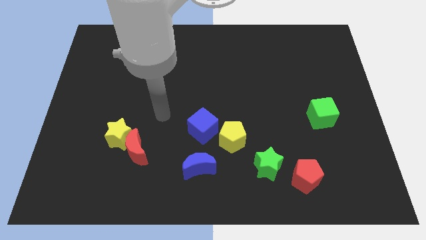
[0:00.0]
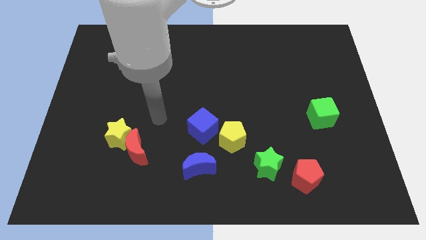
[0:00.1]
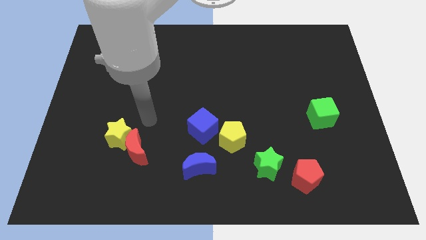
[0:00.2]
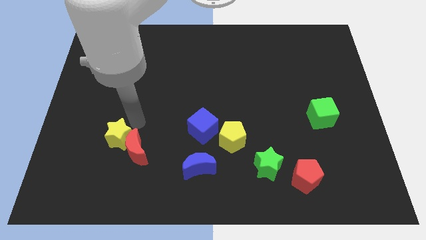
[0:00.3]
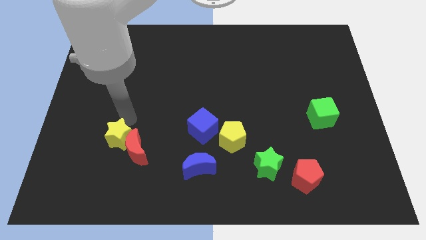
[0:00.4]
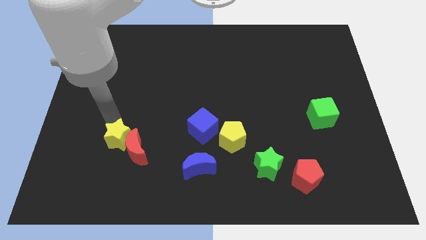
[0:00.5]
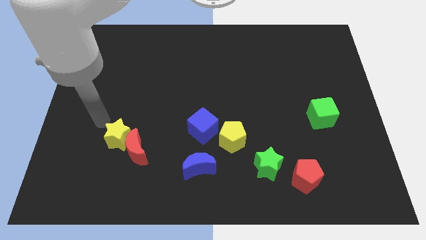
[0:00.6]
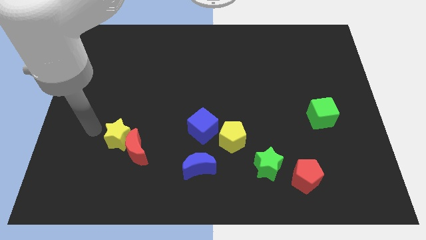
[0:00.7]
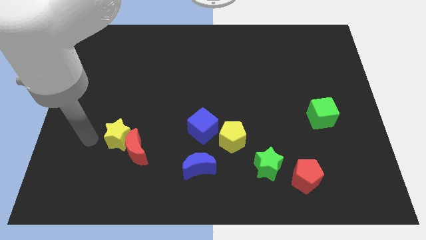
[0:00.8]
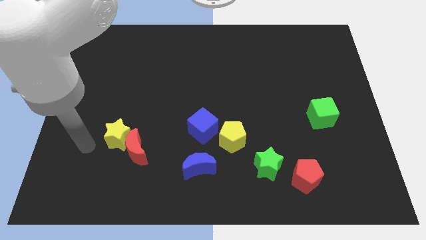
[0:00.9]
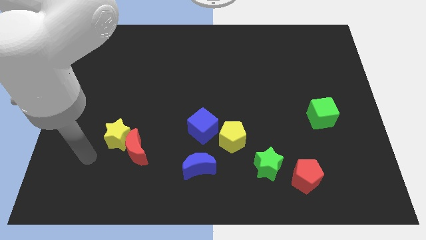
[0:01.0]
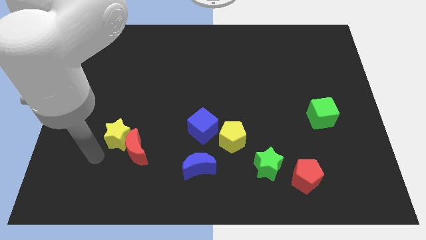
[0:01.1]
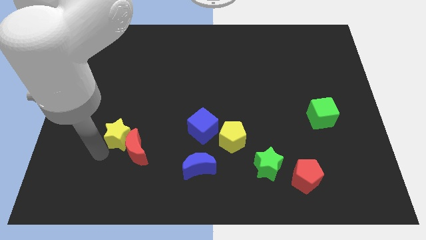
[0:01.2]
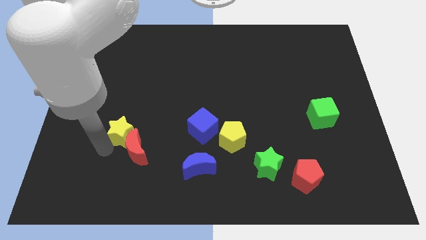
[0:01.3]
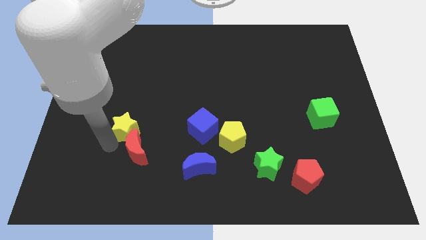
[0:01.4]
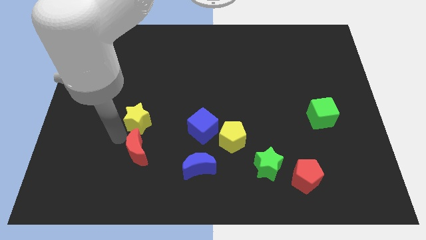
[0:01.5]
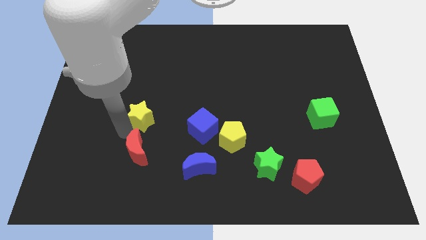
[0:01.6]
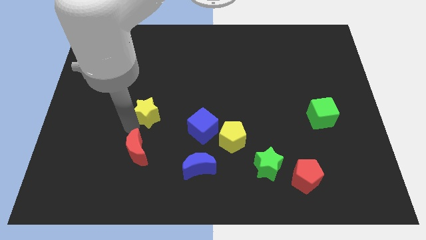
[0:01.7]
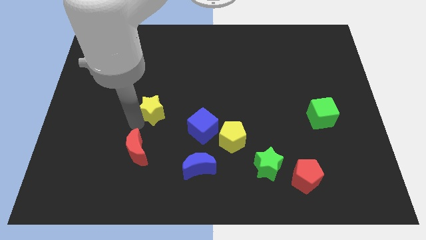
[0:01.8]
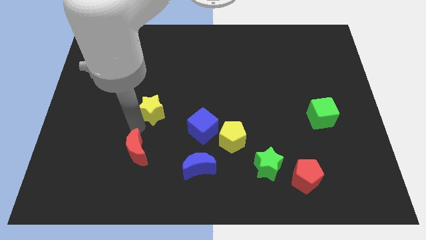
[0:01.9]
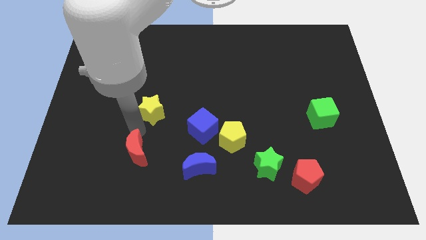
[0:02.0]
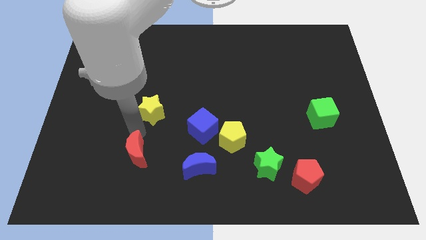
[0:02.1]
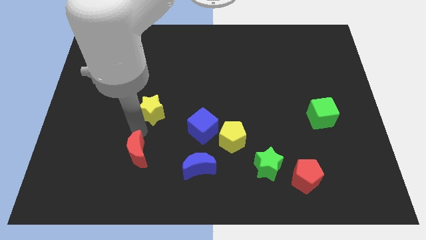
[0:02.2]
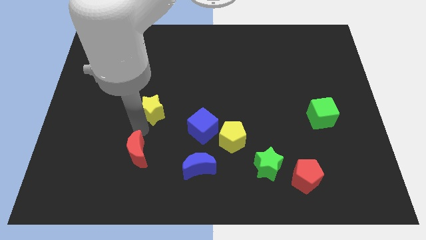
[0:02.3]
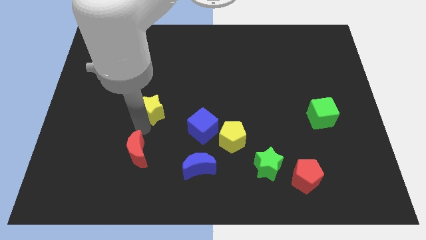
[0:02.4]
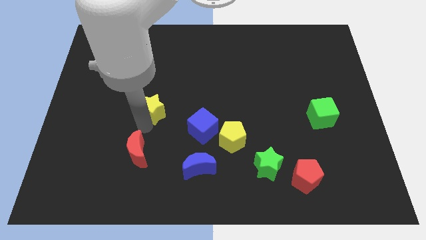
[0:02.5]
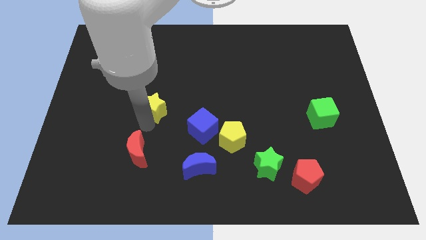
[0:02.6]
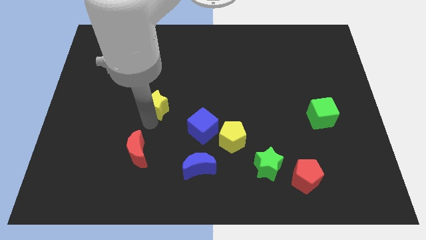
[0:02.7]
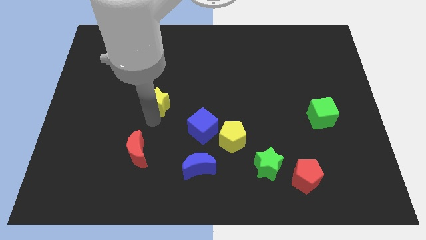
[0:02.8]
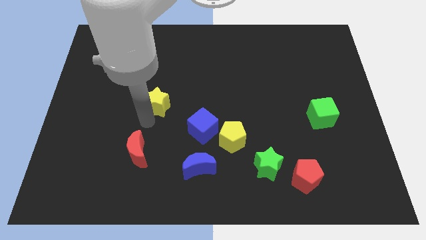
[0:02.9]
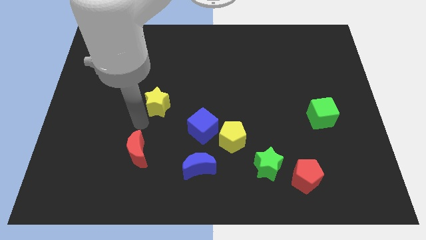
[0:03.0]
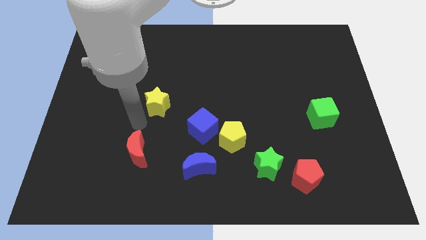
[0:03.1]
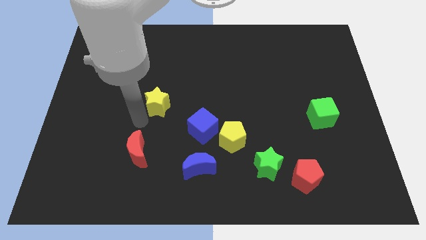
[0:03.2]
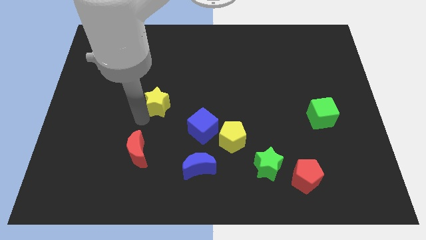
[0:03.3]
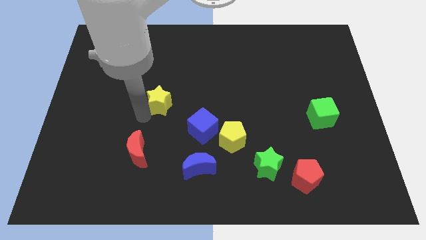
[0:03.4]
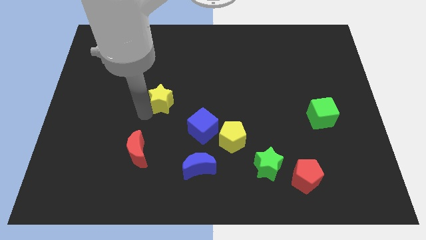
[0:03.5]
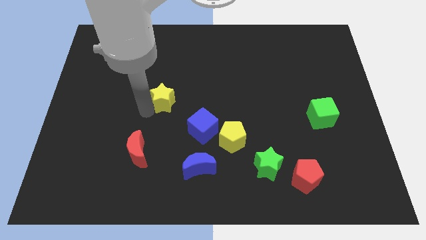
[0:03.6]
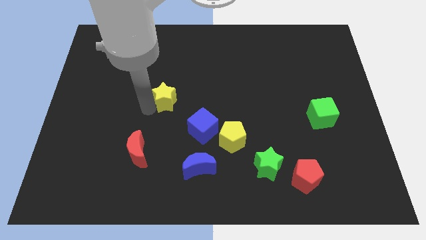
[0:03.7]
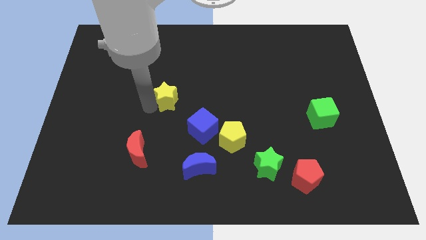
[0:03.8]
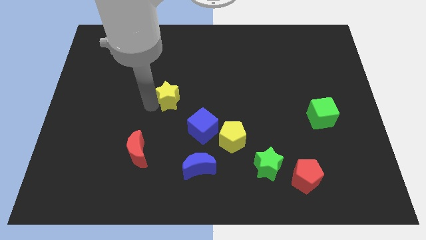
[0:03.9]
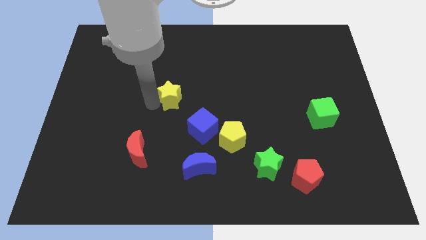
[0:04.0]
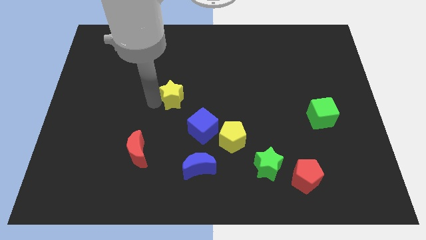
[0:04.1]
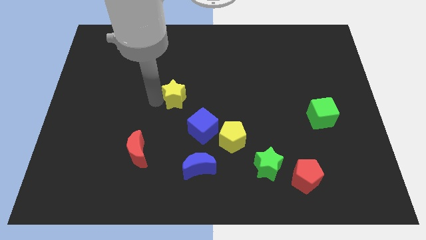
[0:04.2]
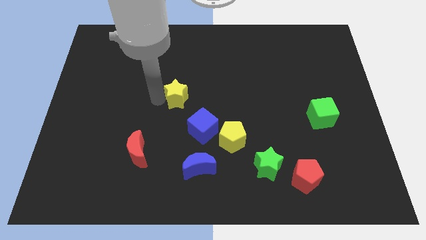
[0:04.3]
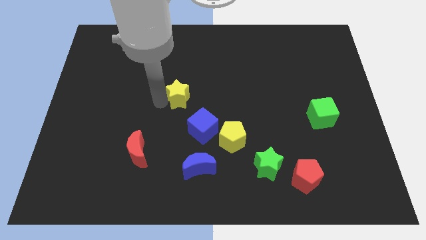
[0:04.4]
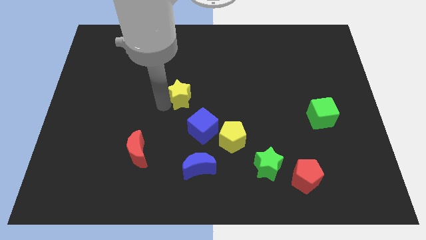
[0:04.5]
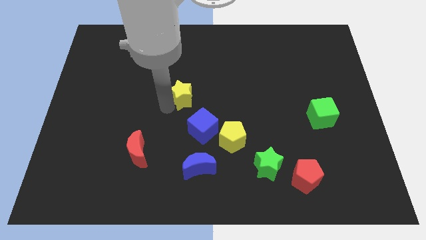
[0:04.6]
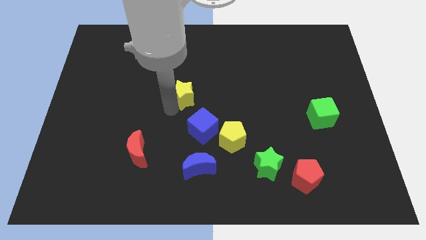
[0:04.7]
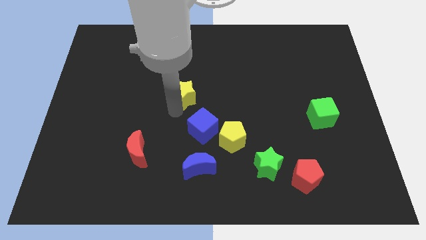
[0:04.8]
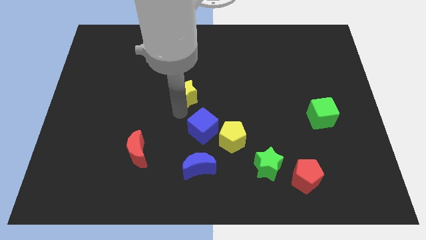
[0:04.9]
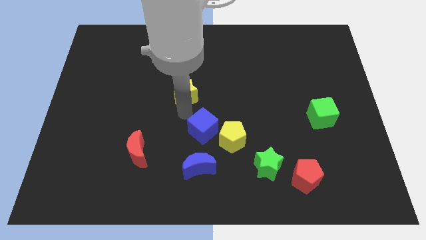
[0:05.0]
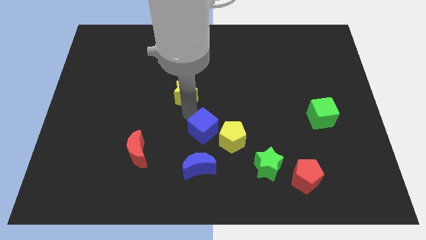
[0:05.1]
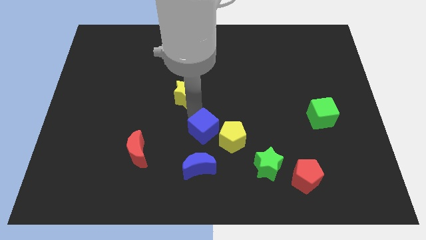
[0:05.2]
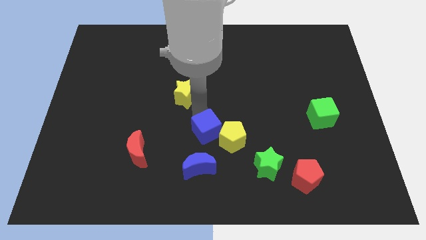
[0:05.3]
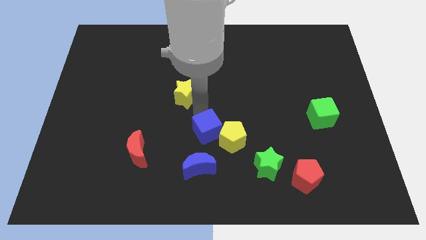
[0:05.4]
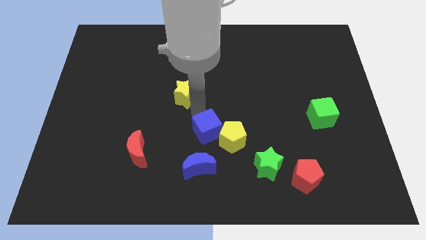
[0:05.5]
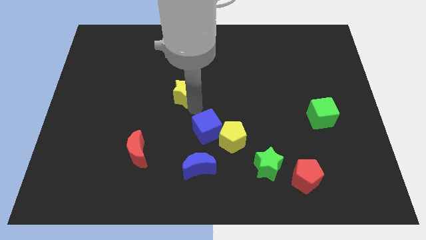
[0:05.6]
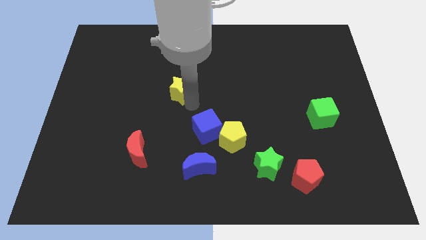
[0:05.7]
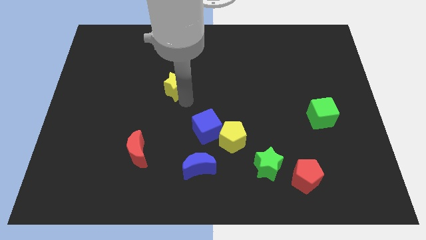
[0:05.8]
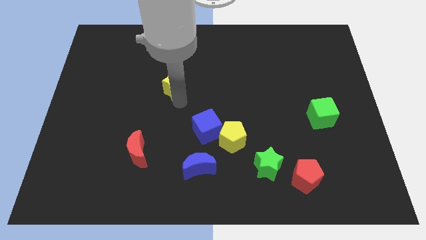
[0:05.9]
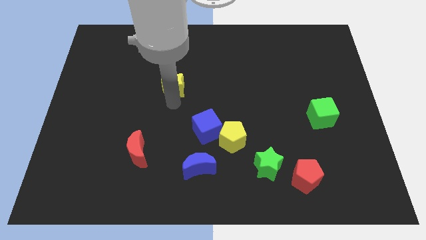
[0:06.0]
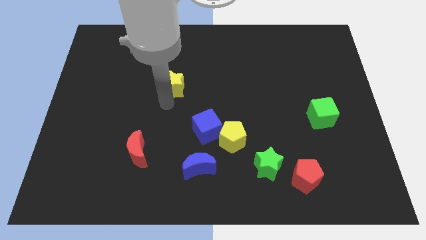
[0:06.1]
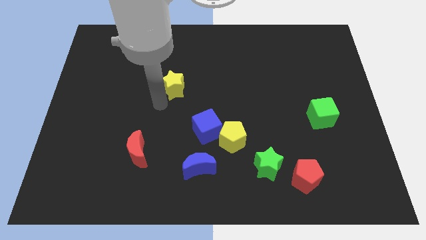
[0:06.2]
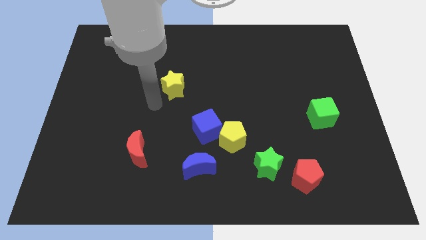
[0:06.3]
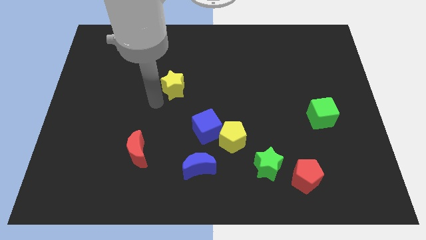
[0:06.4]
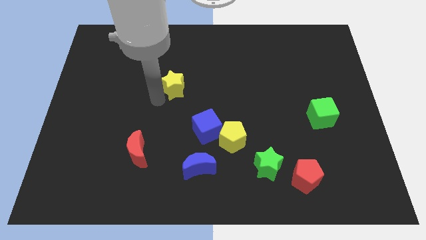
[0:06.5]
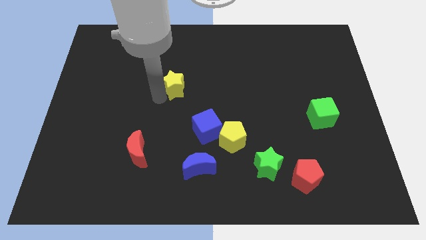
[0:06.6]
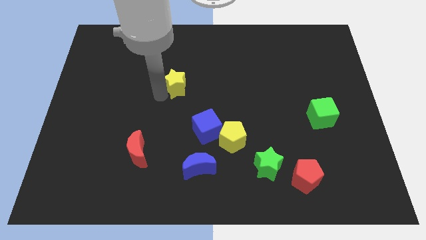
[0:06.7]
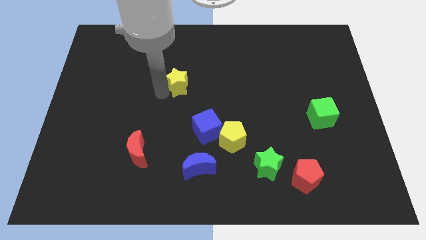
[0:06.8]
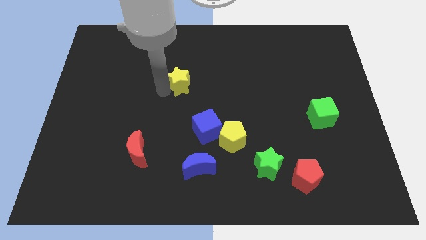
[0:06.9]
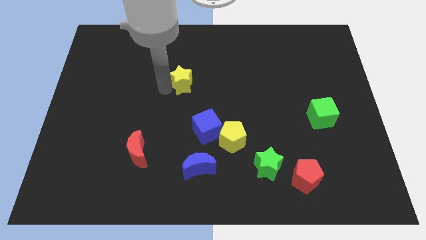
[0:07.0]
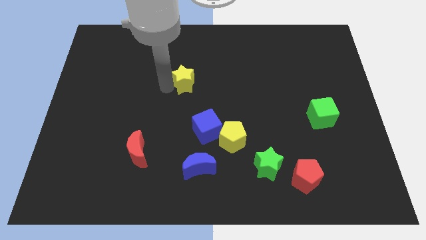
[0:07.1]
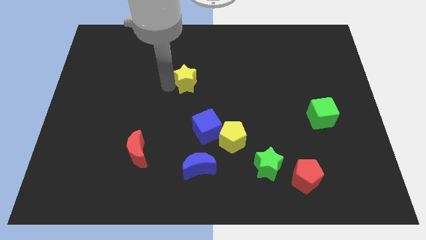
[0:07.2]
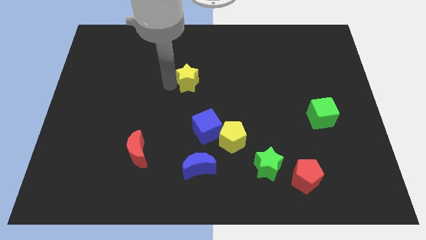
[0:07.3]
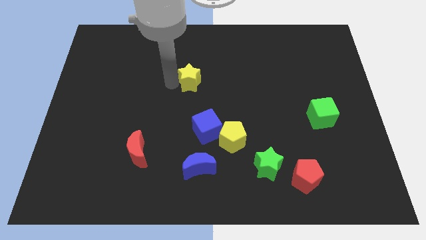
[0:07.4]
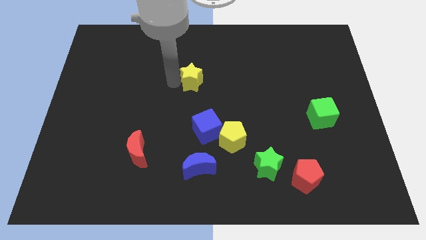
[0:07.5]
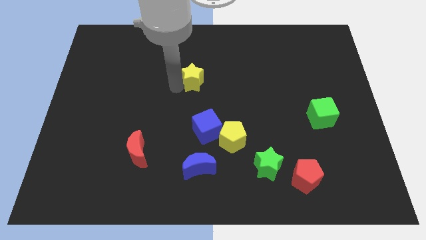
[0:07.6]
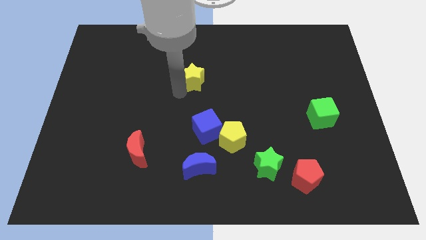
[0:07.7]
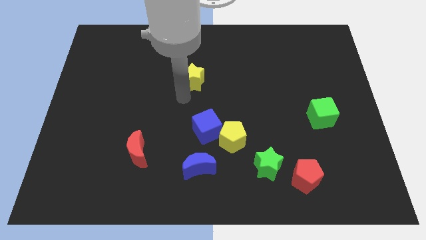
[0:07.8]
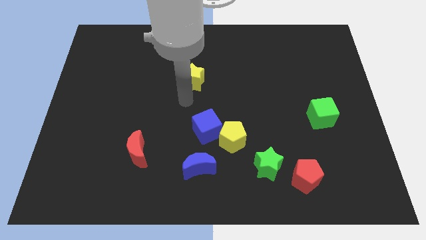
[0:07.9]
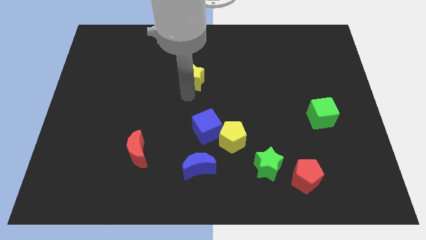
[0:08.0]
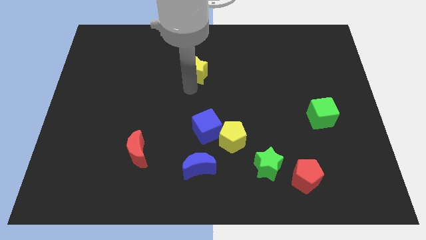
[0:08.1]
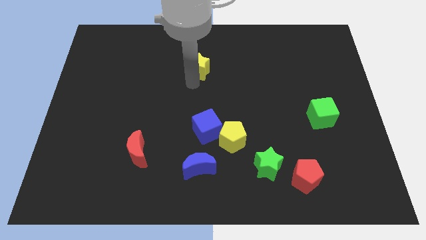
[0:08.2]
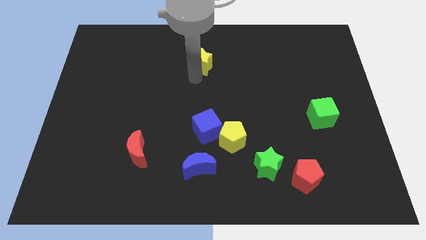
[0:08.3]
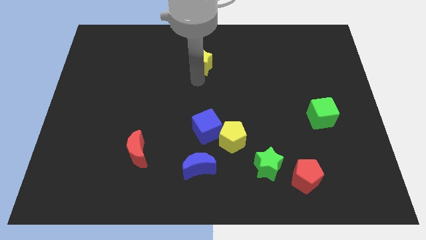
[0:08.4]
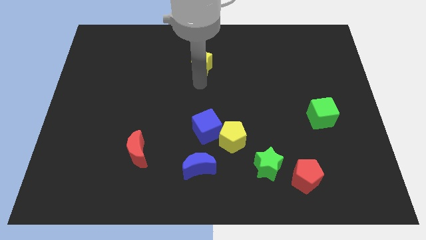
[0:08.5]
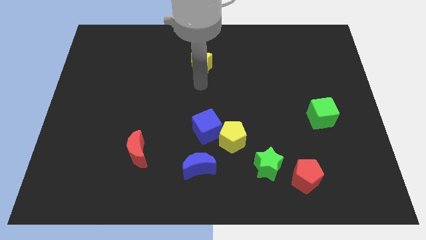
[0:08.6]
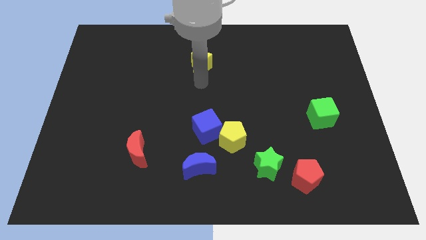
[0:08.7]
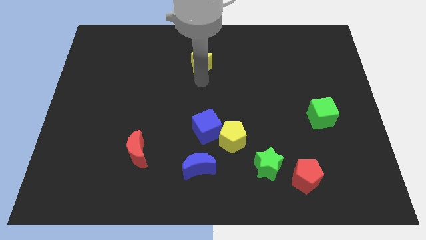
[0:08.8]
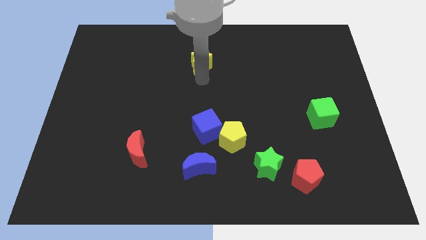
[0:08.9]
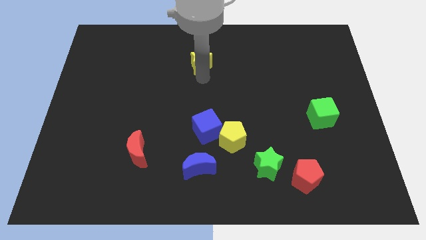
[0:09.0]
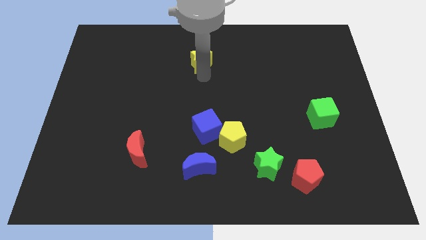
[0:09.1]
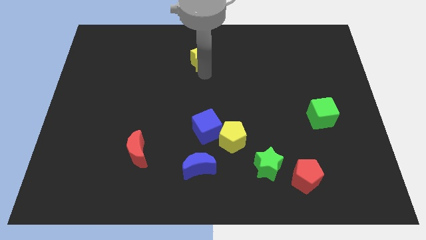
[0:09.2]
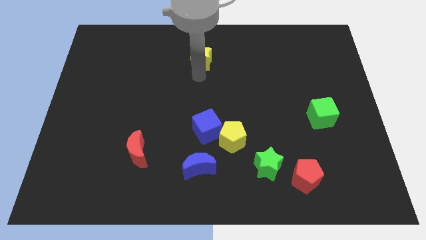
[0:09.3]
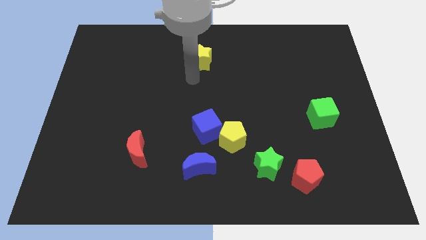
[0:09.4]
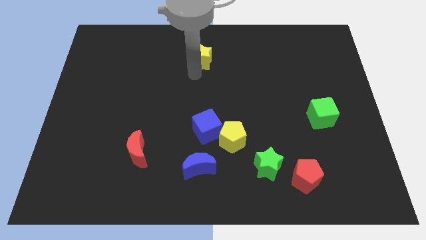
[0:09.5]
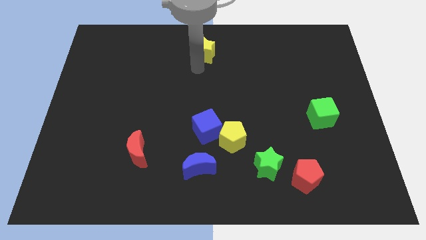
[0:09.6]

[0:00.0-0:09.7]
move the yellow star to the top side
